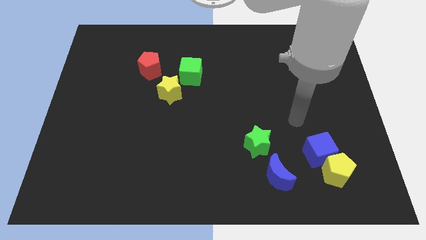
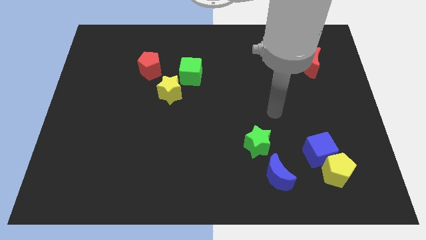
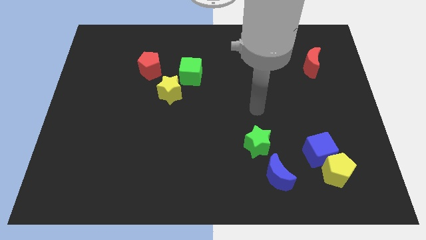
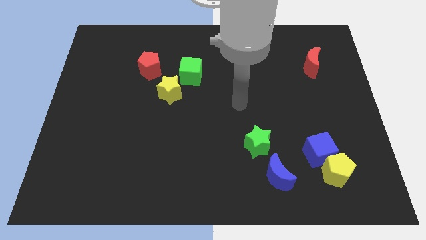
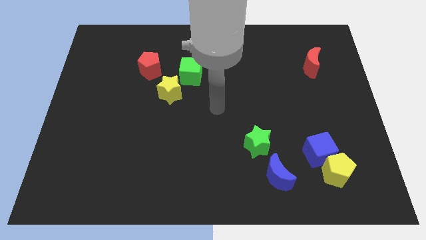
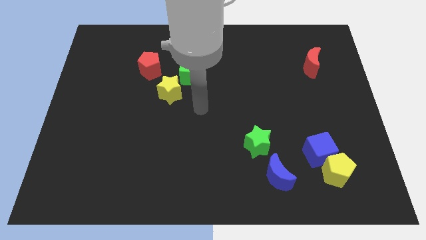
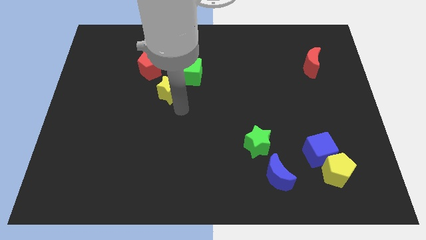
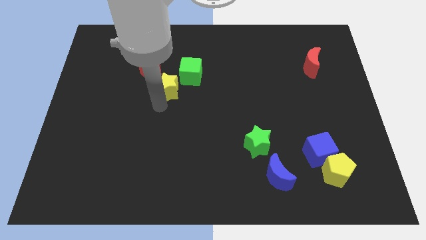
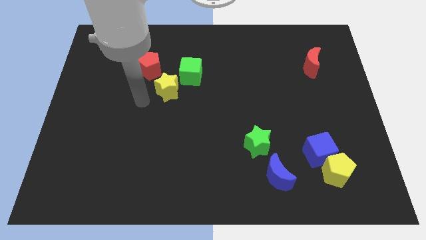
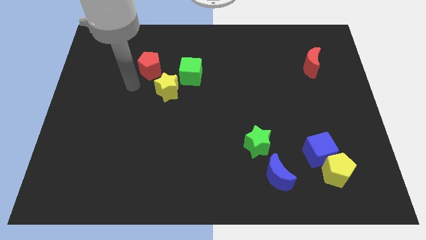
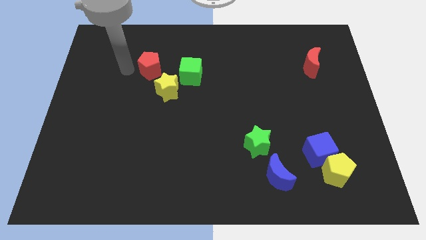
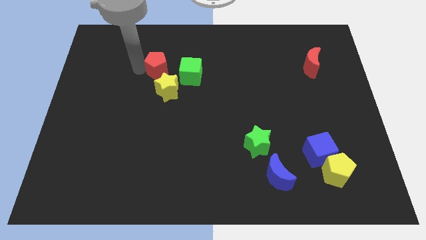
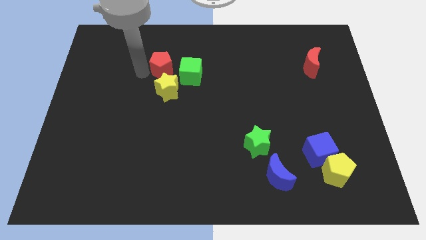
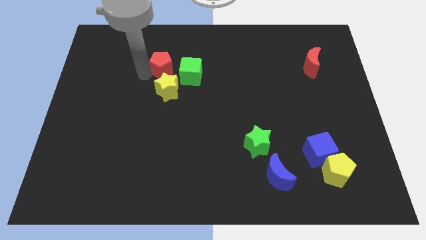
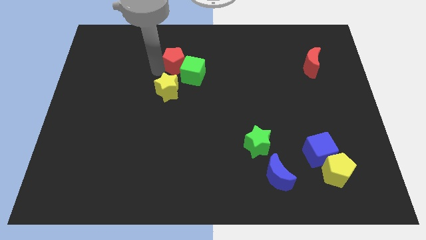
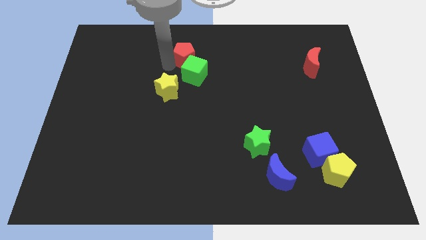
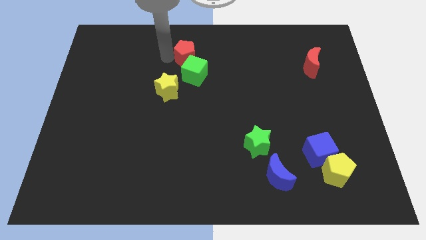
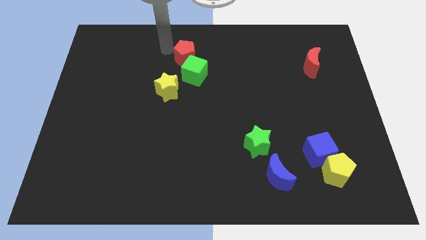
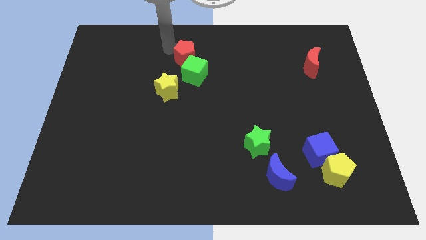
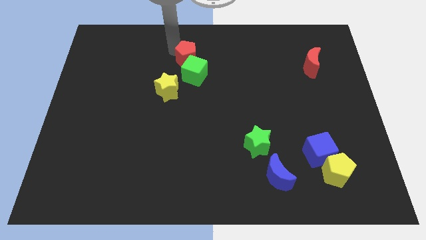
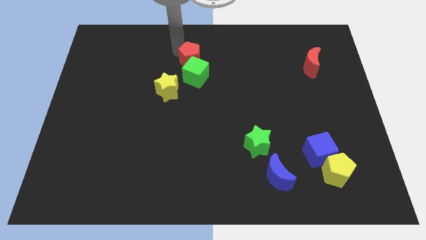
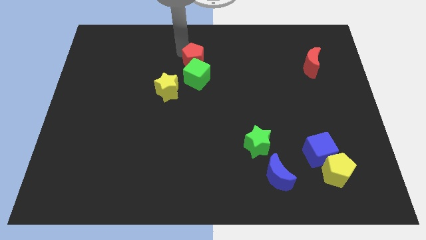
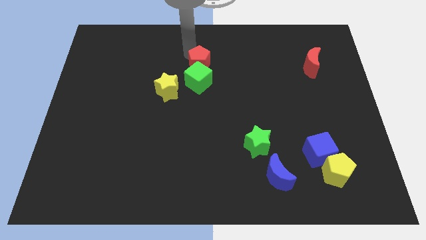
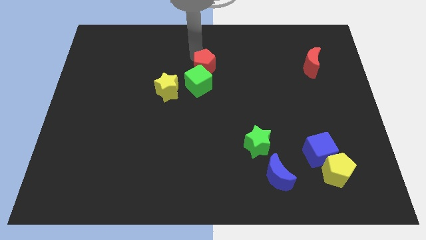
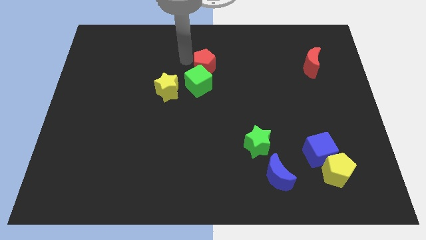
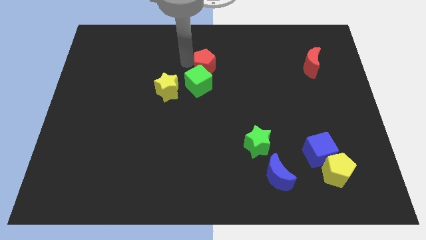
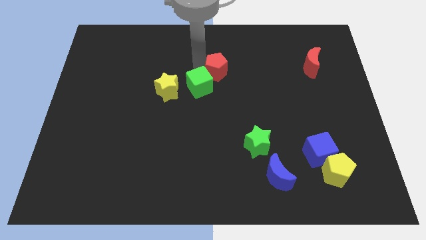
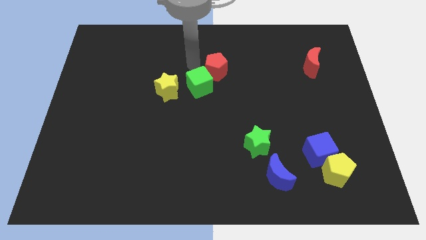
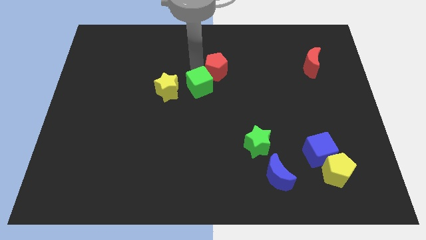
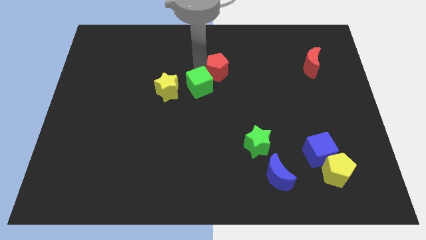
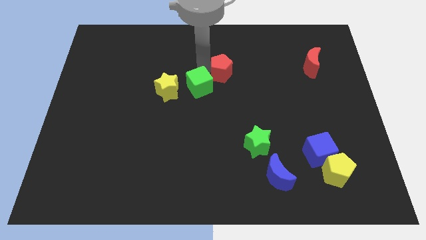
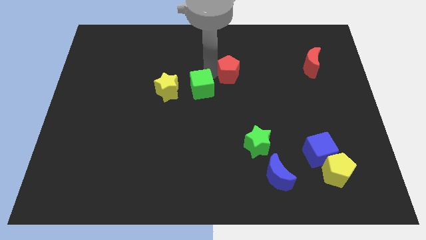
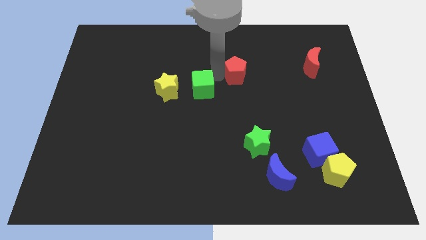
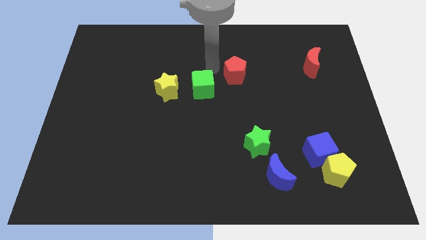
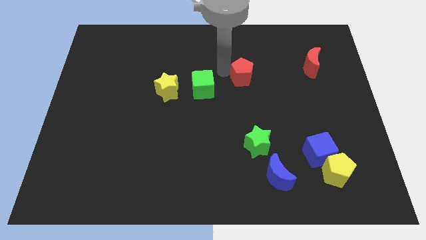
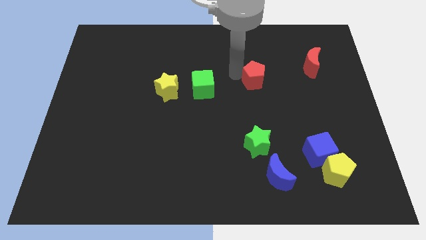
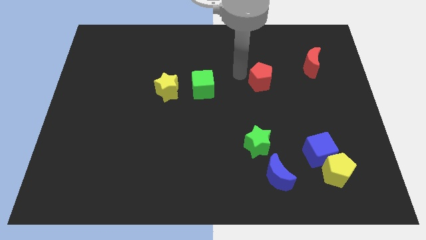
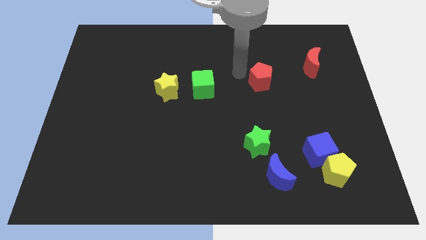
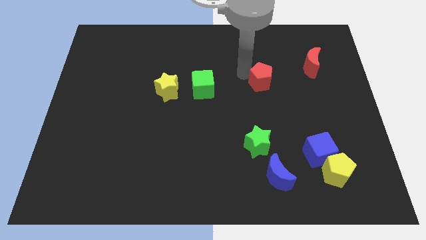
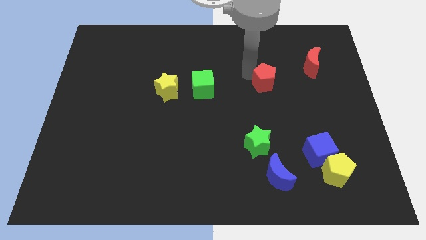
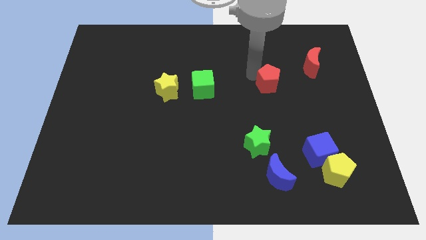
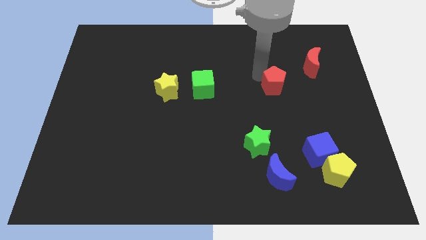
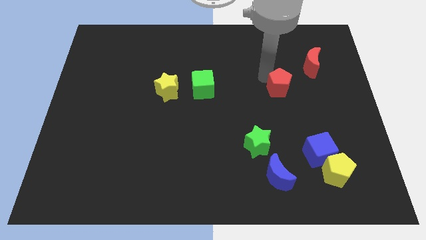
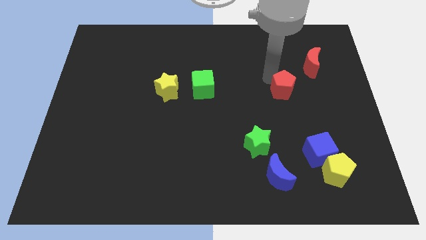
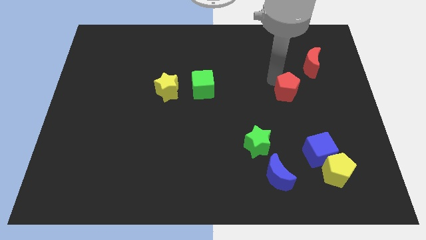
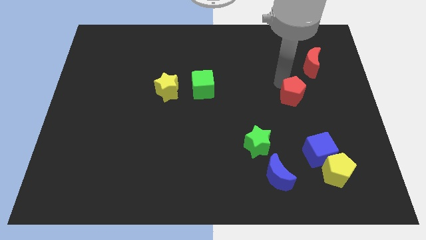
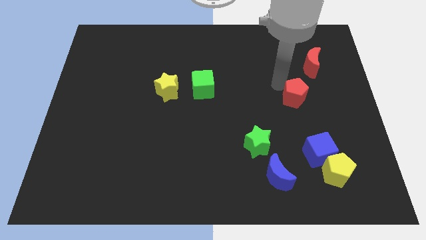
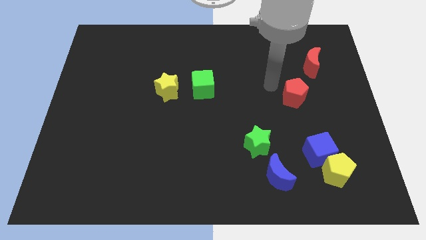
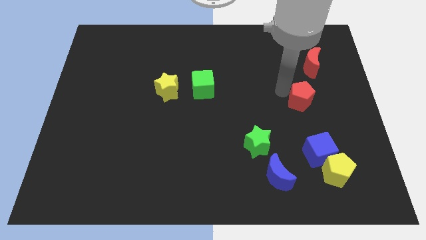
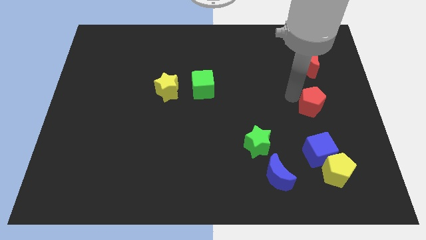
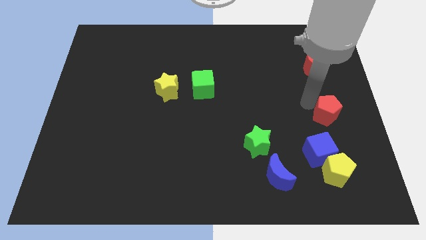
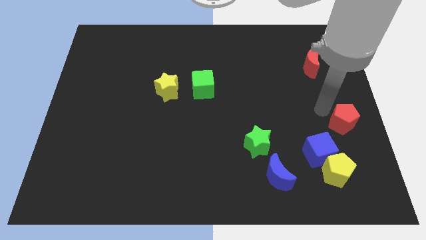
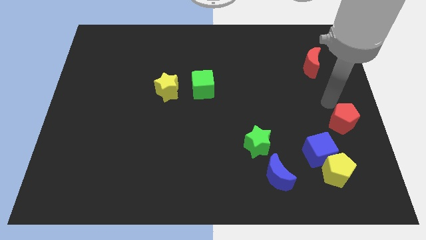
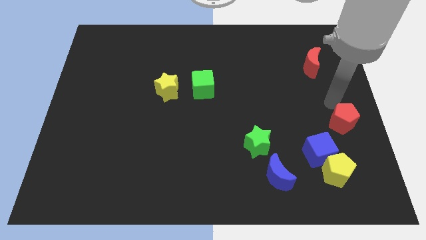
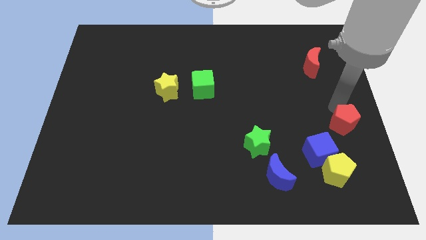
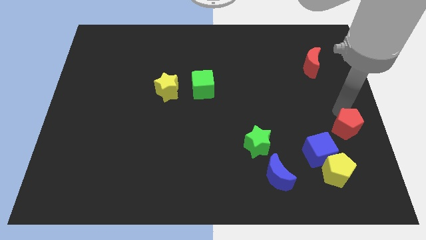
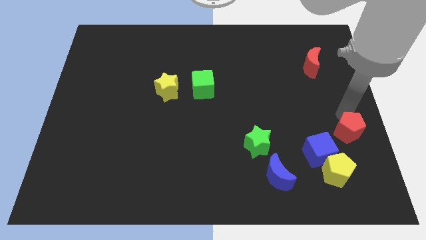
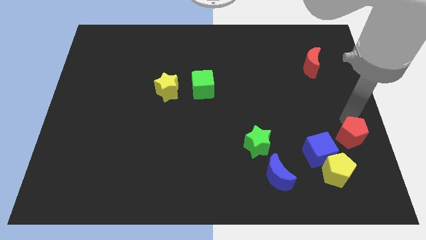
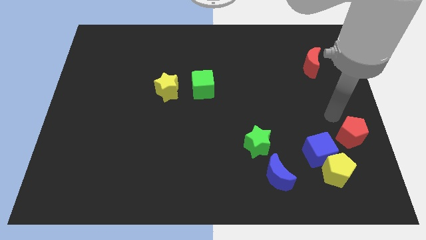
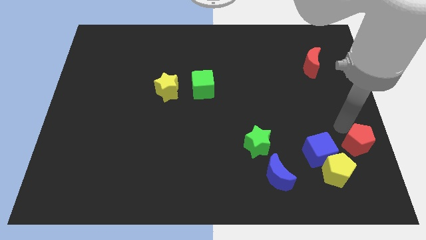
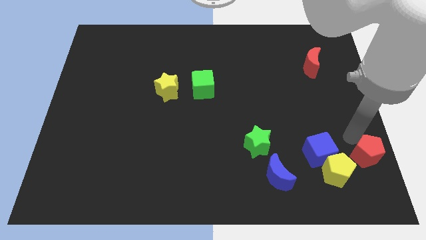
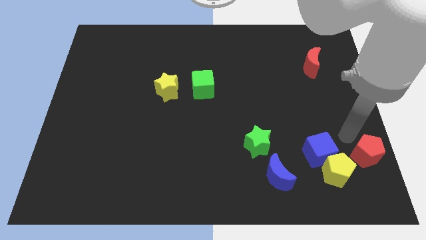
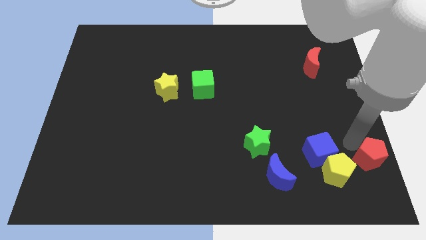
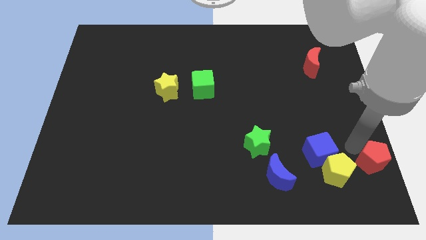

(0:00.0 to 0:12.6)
push the red pentagon to the bottom right of the board
